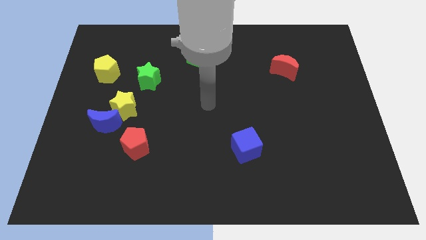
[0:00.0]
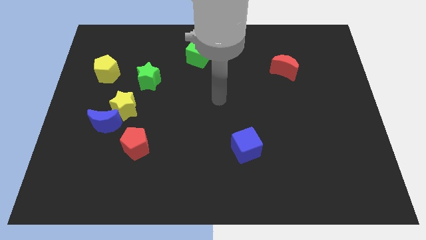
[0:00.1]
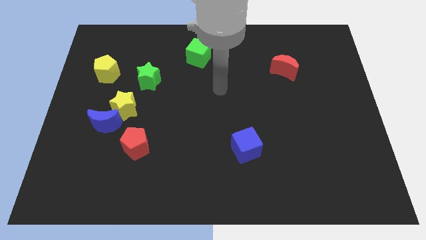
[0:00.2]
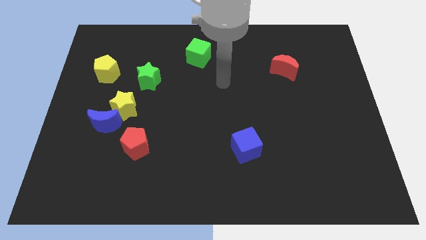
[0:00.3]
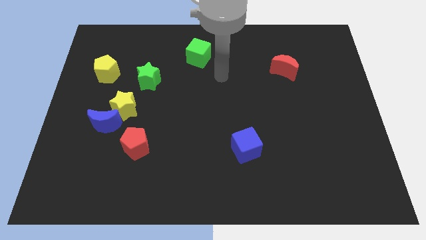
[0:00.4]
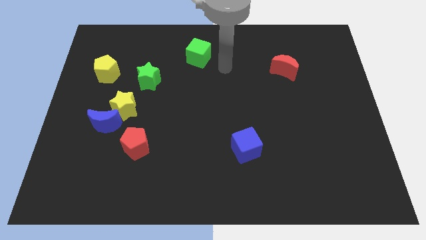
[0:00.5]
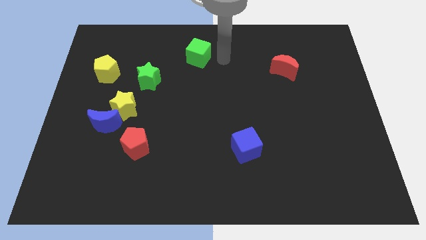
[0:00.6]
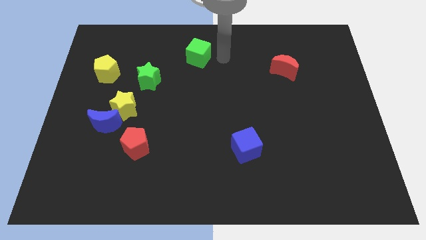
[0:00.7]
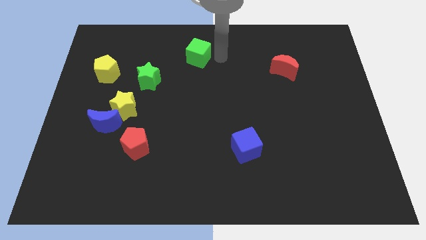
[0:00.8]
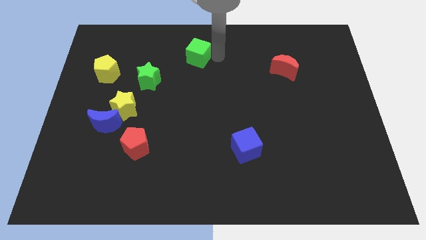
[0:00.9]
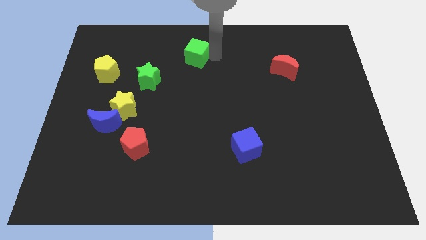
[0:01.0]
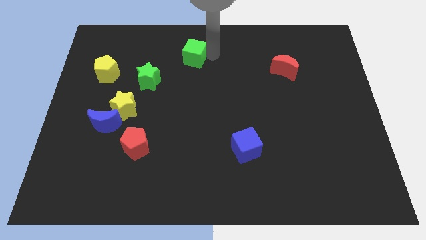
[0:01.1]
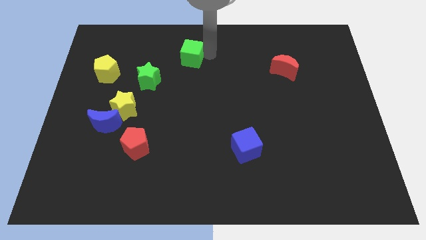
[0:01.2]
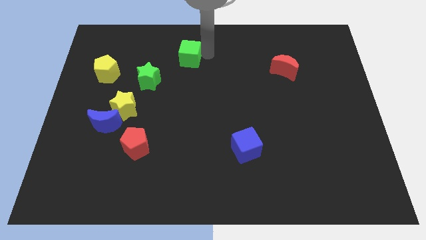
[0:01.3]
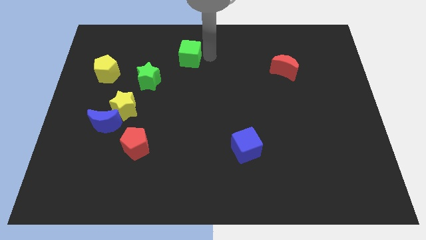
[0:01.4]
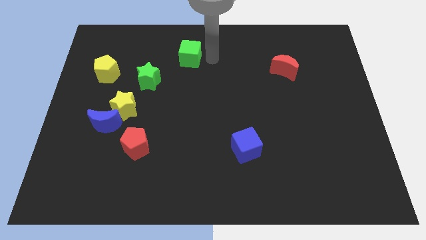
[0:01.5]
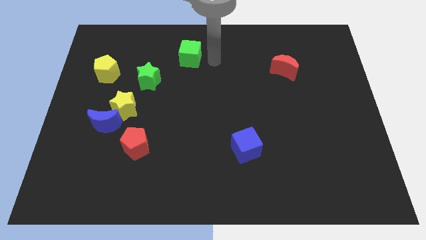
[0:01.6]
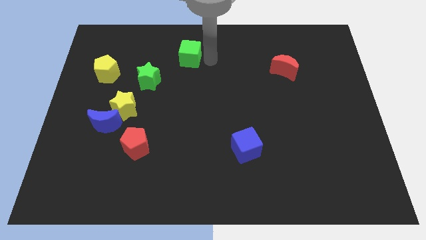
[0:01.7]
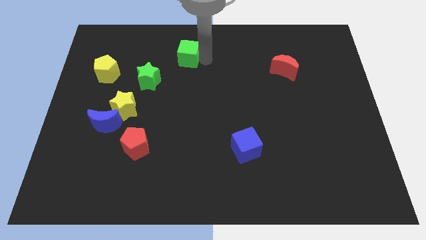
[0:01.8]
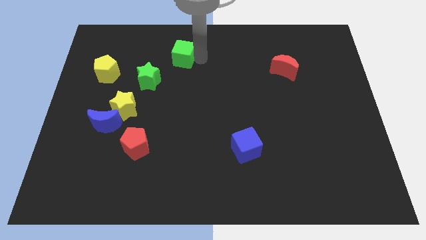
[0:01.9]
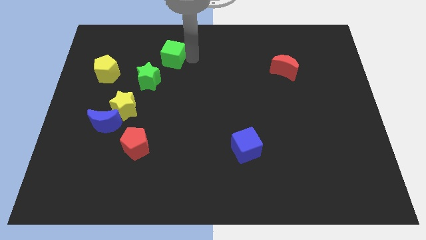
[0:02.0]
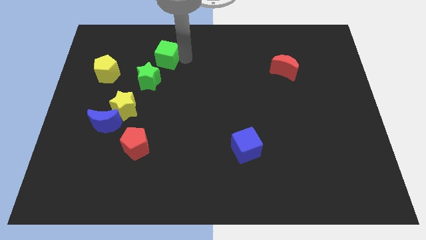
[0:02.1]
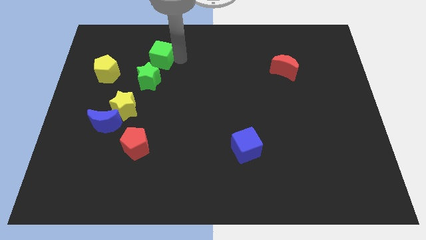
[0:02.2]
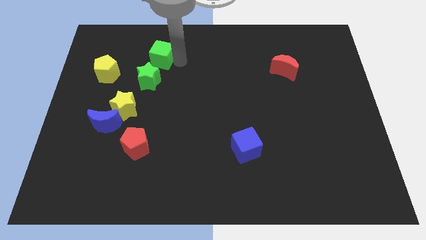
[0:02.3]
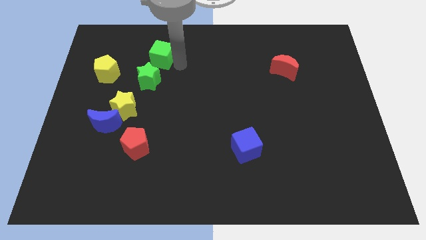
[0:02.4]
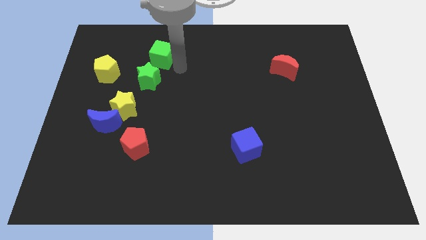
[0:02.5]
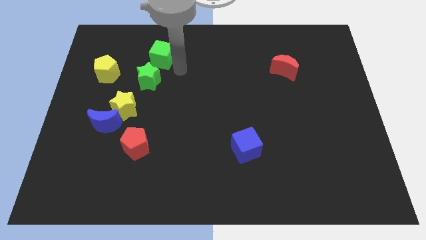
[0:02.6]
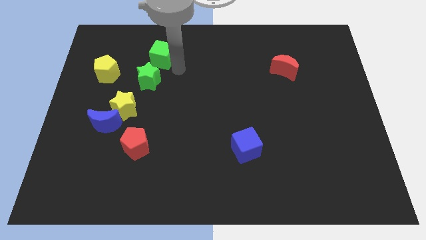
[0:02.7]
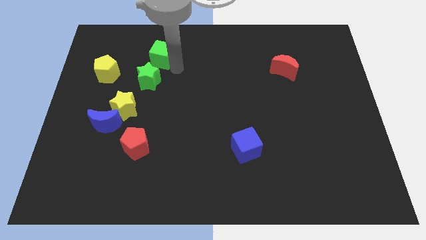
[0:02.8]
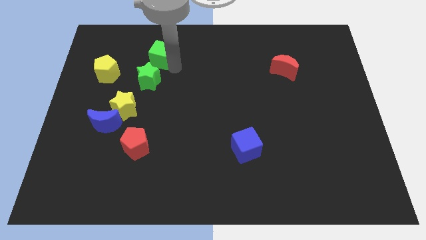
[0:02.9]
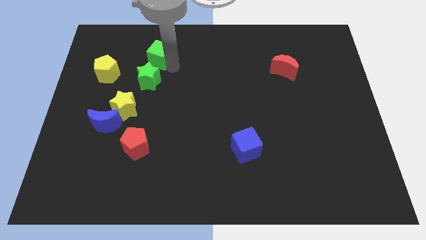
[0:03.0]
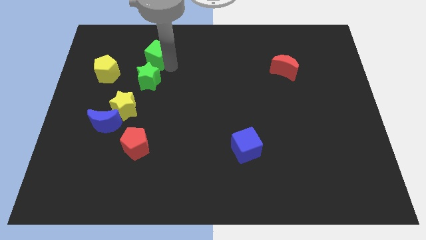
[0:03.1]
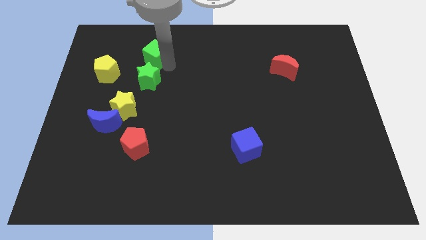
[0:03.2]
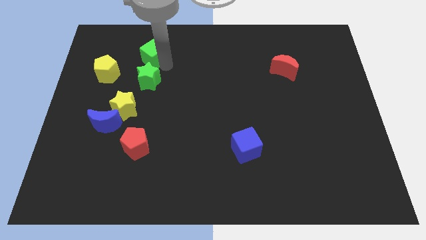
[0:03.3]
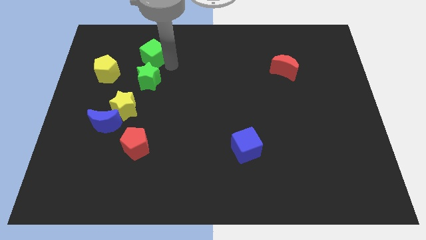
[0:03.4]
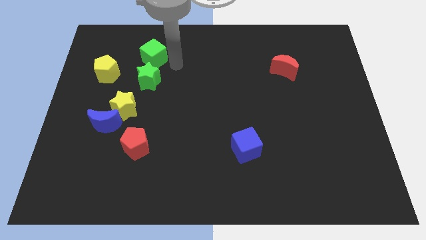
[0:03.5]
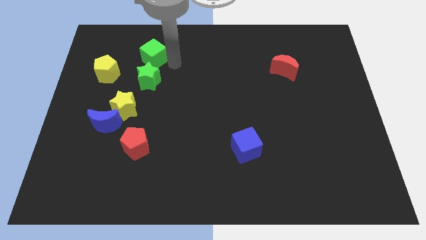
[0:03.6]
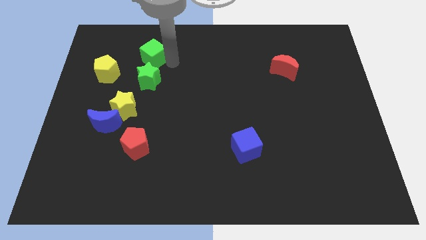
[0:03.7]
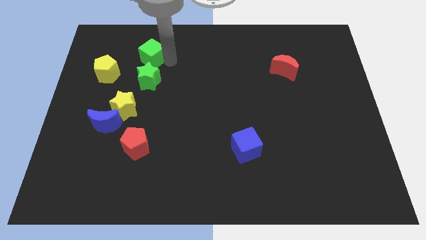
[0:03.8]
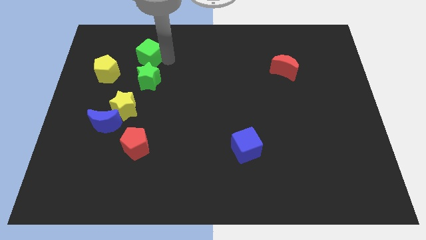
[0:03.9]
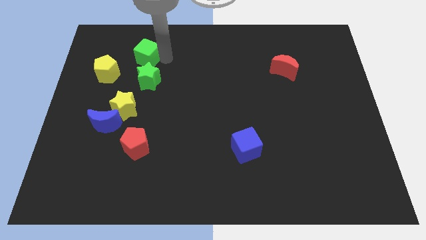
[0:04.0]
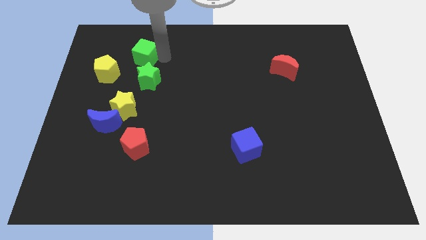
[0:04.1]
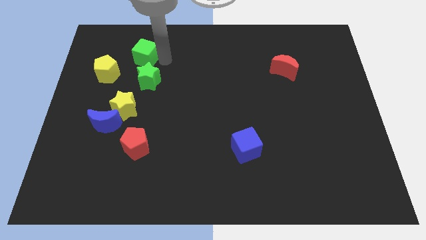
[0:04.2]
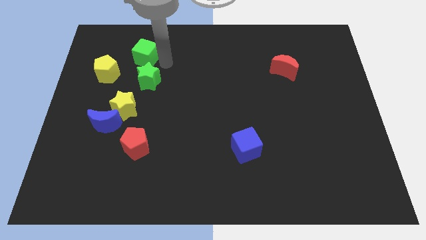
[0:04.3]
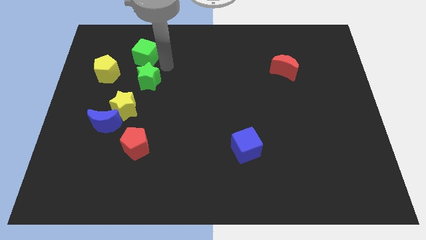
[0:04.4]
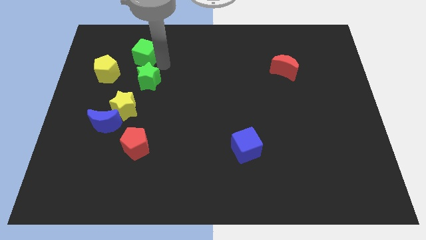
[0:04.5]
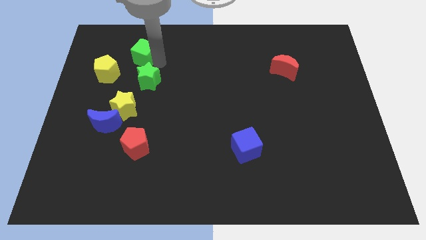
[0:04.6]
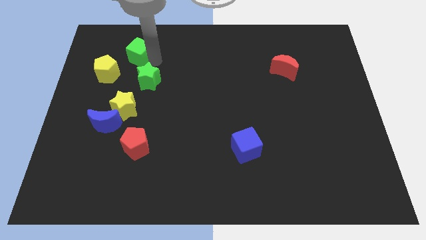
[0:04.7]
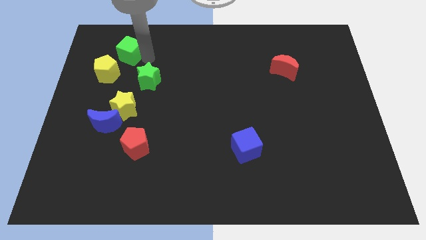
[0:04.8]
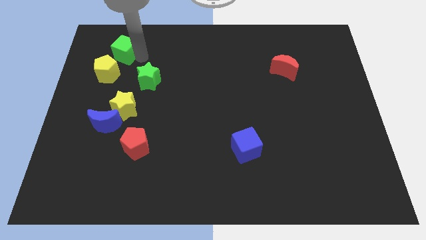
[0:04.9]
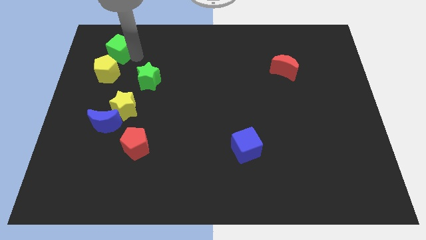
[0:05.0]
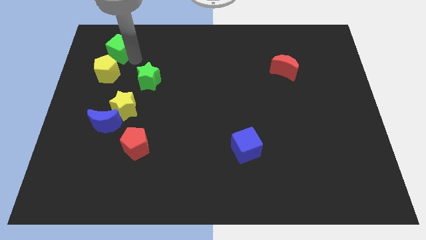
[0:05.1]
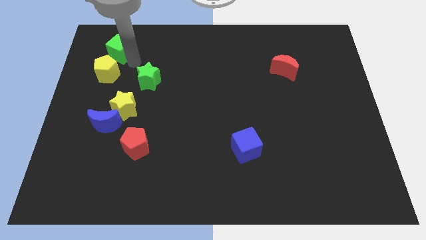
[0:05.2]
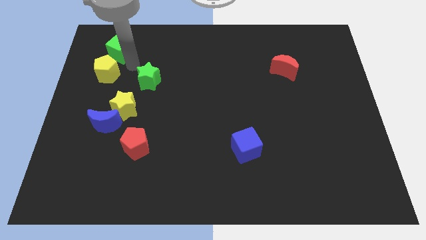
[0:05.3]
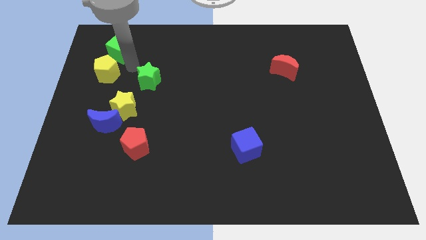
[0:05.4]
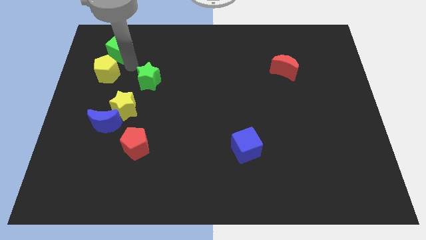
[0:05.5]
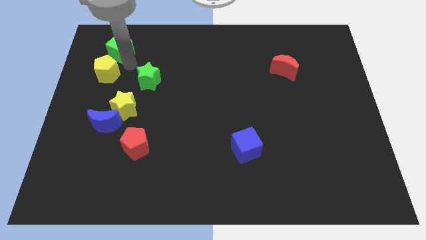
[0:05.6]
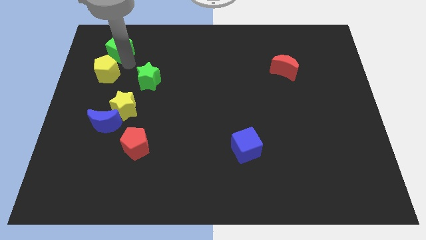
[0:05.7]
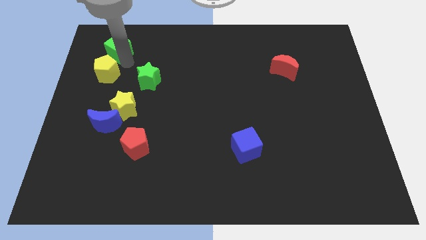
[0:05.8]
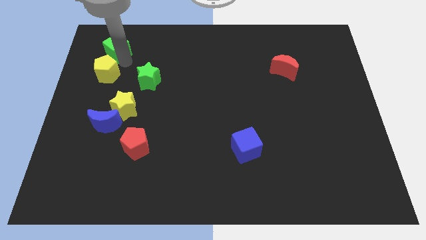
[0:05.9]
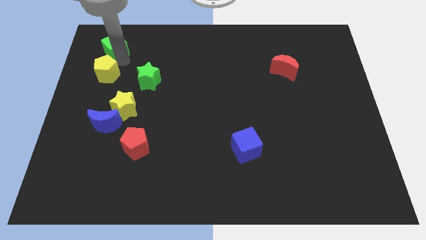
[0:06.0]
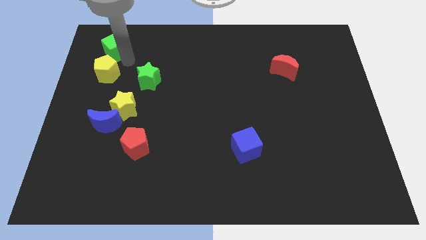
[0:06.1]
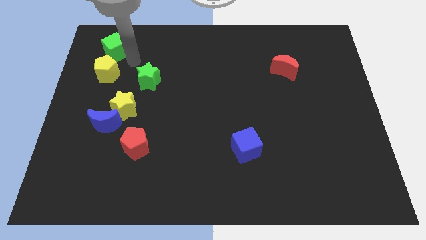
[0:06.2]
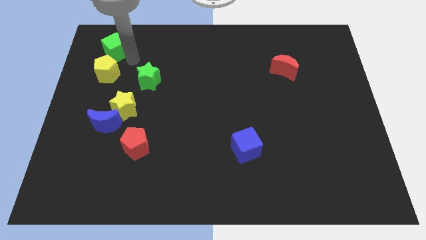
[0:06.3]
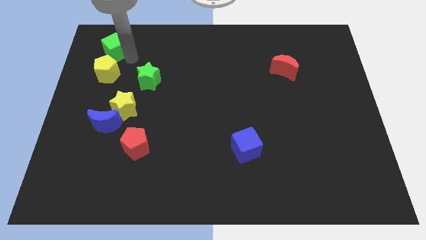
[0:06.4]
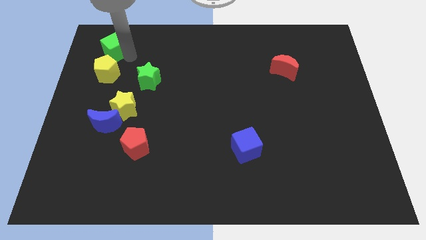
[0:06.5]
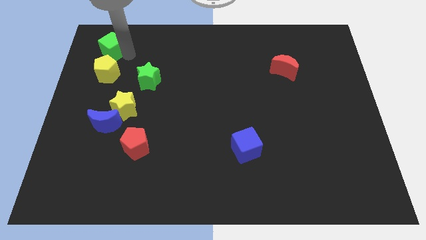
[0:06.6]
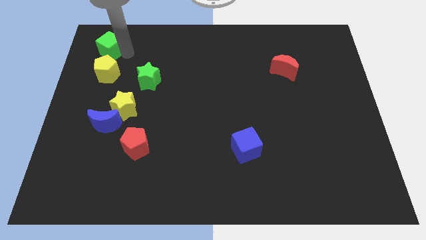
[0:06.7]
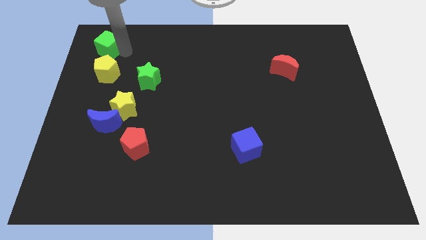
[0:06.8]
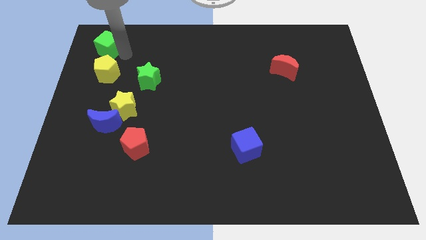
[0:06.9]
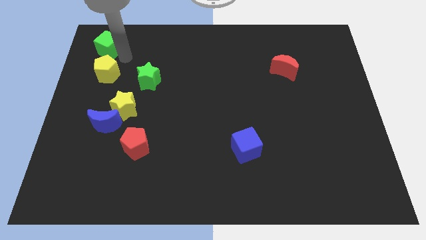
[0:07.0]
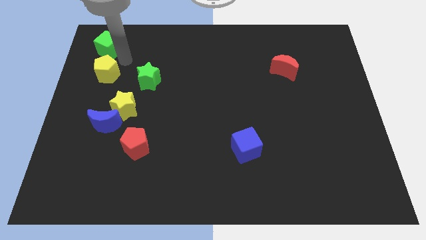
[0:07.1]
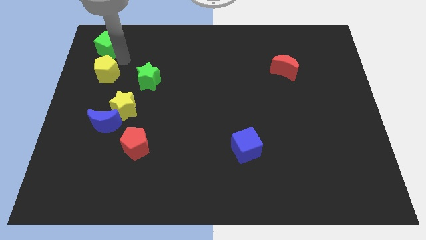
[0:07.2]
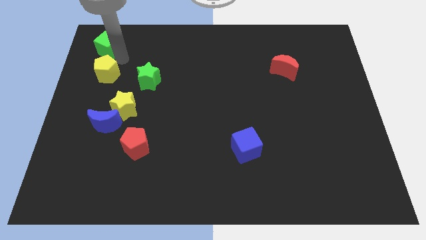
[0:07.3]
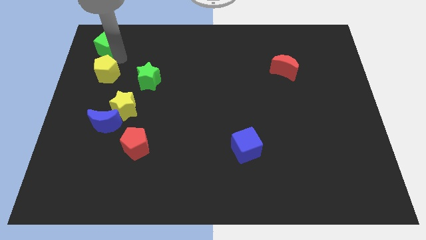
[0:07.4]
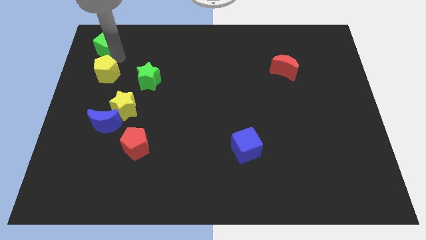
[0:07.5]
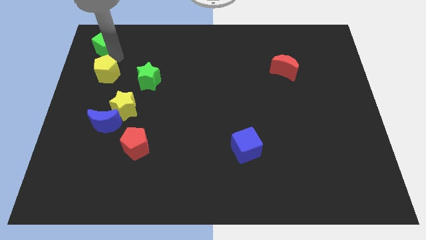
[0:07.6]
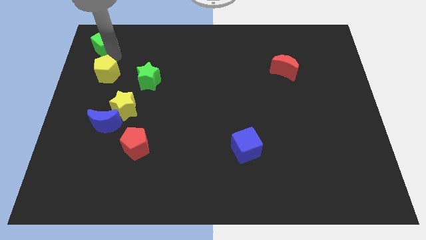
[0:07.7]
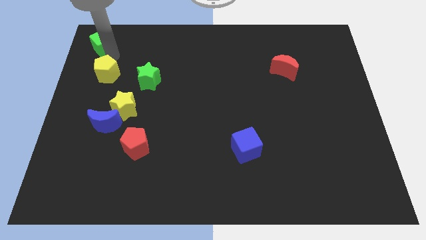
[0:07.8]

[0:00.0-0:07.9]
put the green cube to the top left
